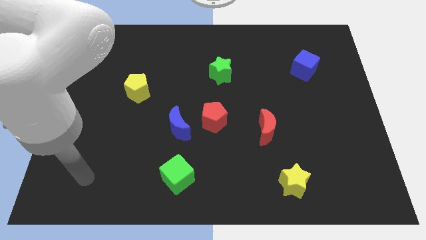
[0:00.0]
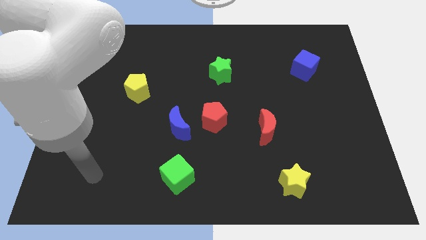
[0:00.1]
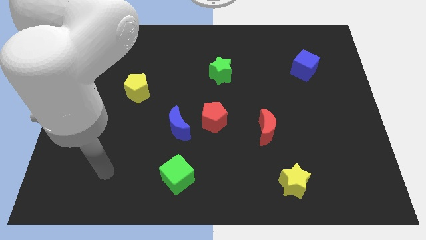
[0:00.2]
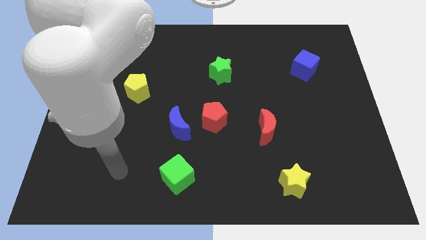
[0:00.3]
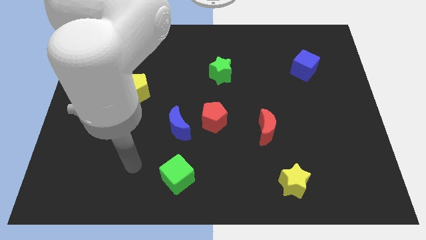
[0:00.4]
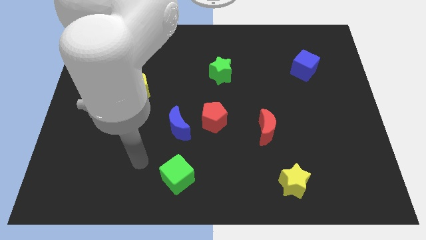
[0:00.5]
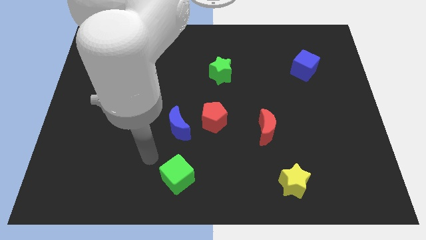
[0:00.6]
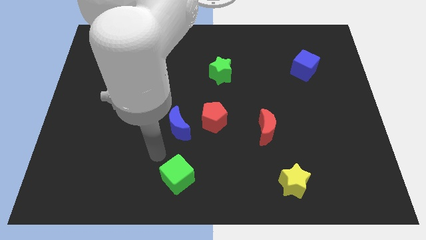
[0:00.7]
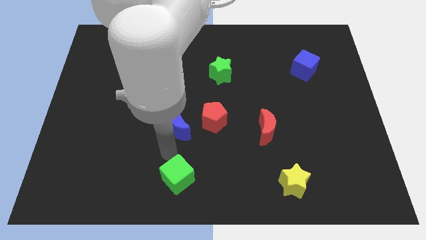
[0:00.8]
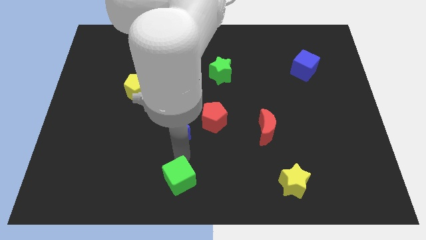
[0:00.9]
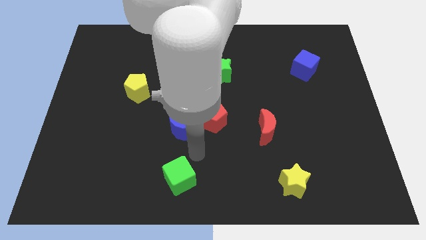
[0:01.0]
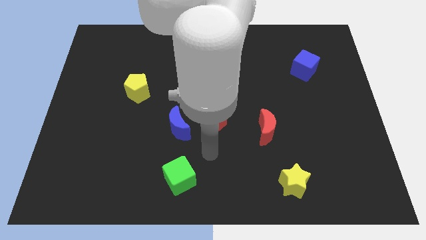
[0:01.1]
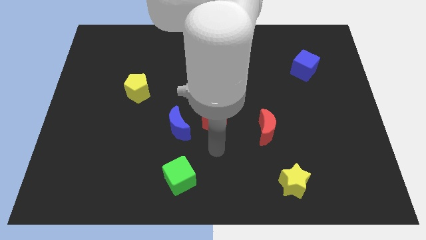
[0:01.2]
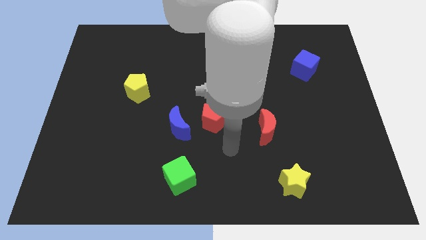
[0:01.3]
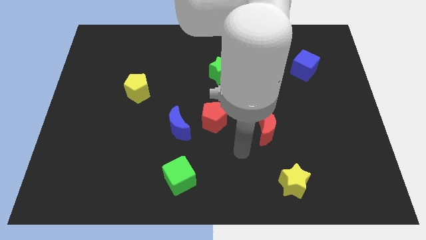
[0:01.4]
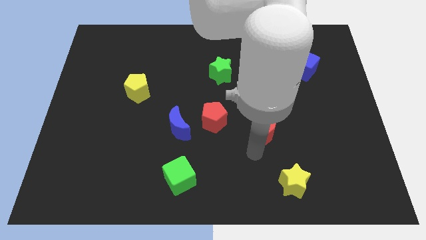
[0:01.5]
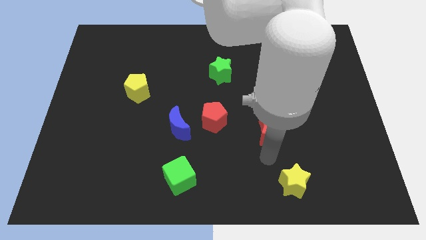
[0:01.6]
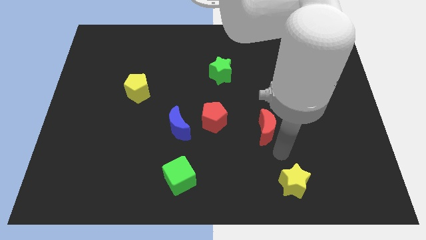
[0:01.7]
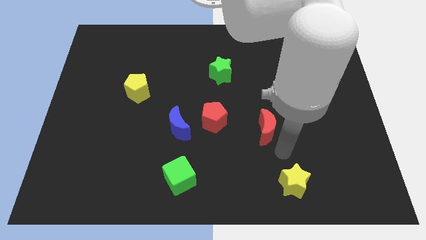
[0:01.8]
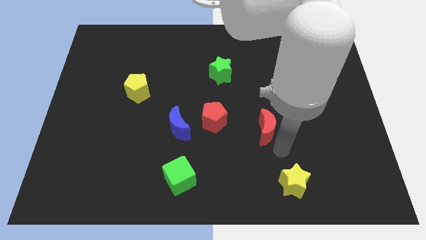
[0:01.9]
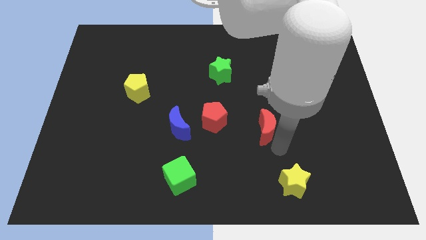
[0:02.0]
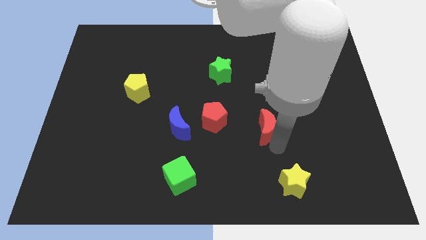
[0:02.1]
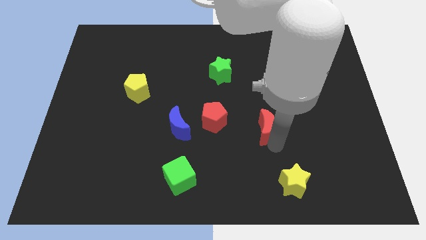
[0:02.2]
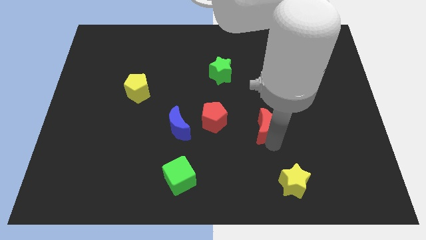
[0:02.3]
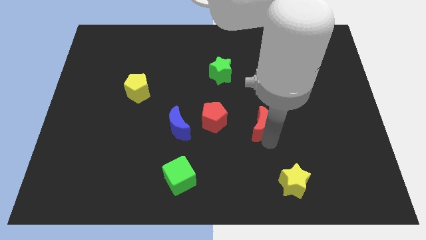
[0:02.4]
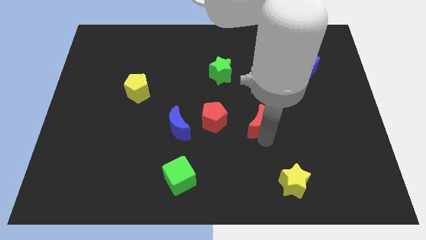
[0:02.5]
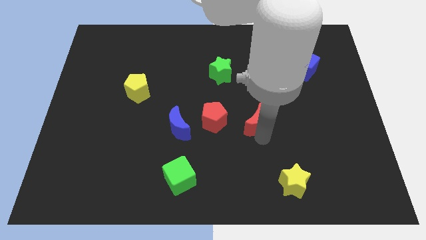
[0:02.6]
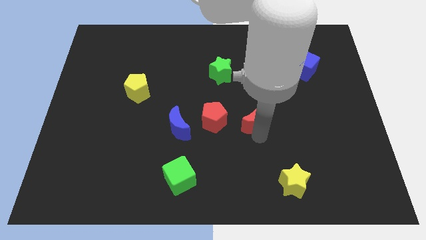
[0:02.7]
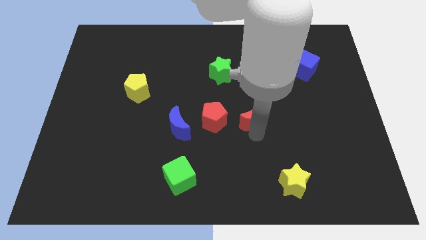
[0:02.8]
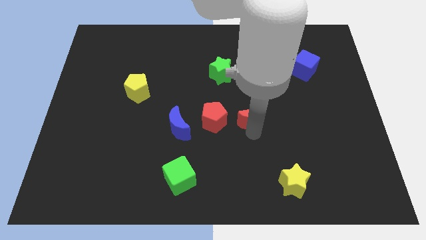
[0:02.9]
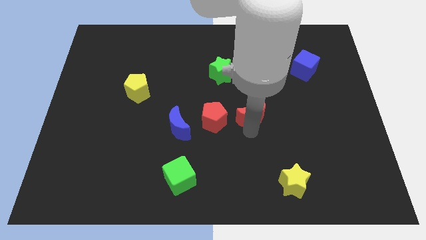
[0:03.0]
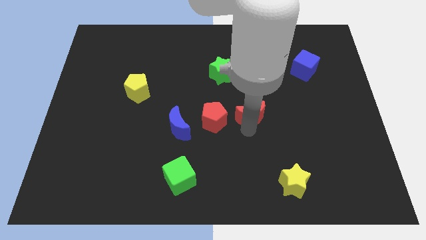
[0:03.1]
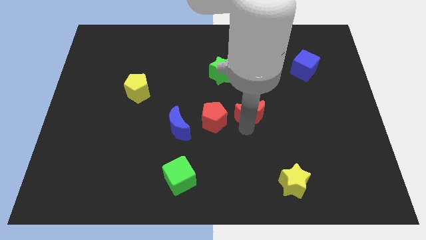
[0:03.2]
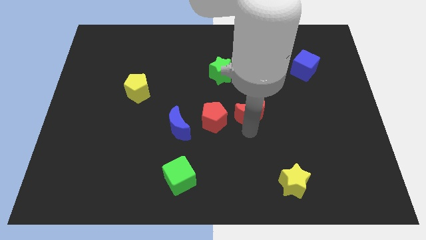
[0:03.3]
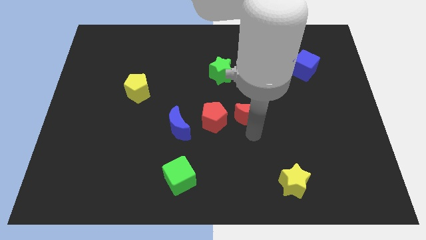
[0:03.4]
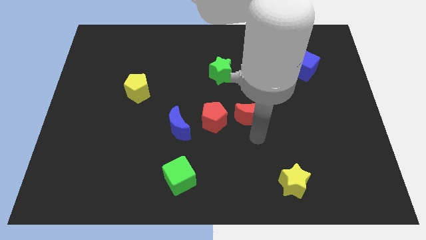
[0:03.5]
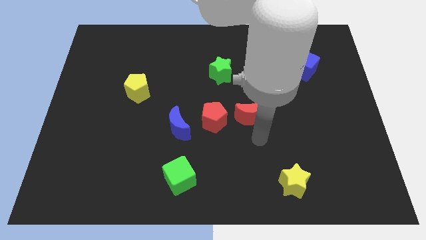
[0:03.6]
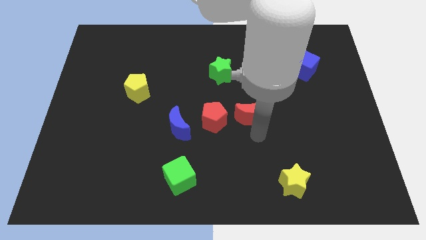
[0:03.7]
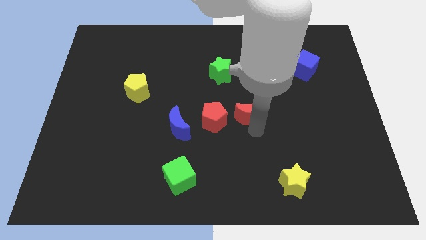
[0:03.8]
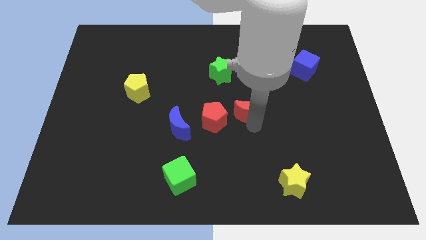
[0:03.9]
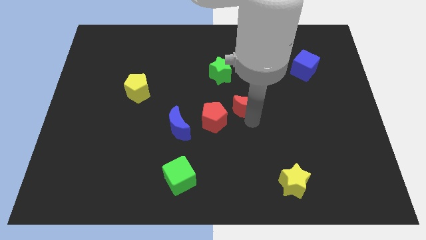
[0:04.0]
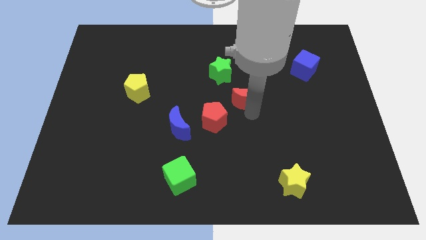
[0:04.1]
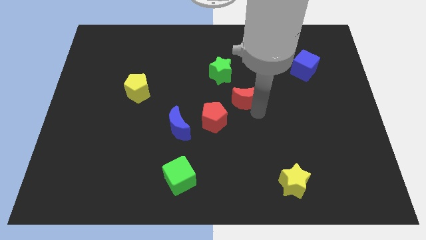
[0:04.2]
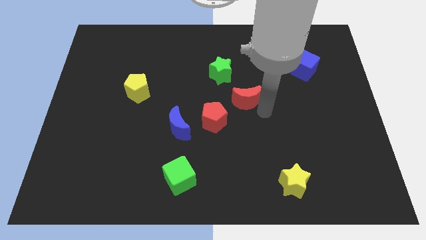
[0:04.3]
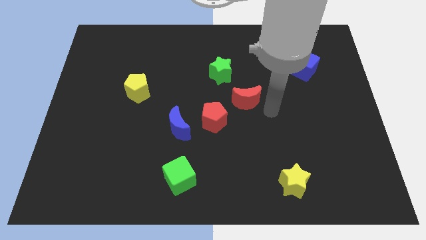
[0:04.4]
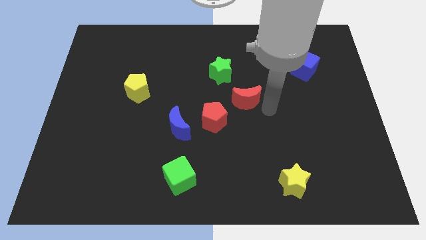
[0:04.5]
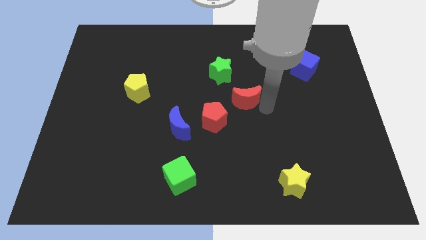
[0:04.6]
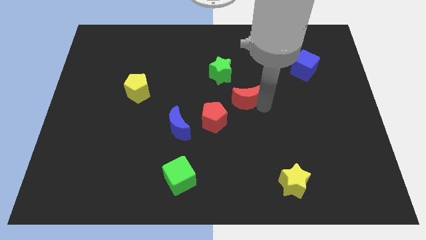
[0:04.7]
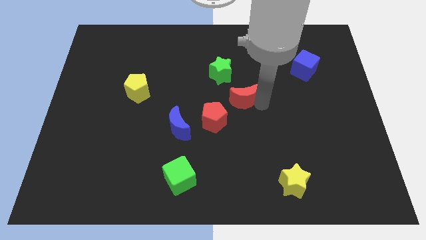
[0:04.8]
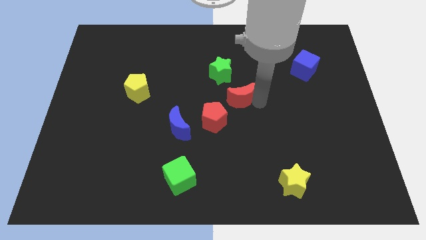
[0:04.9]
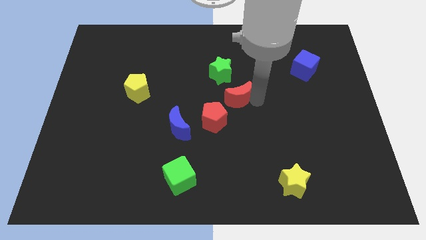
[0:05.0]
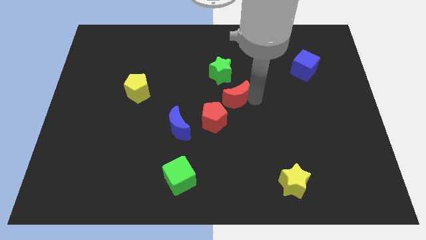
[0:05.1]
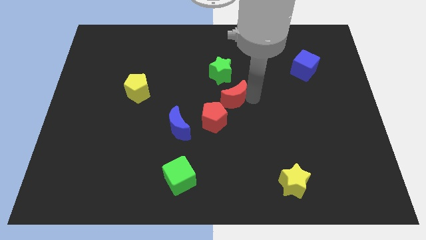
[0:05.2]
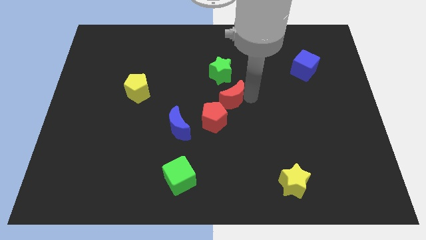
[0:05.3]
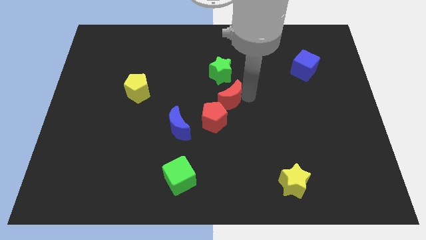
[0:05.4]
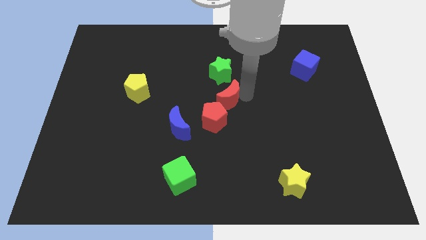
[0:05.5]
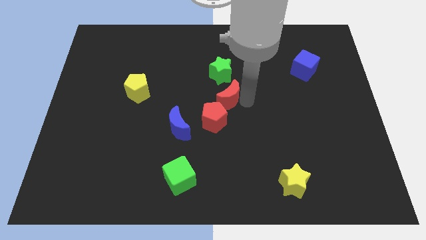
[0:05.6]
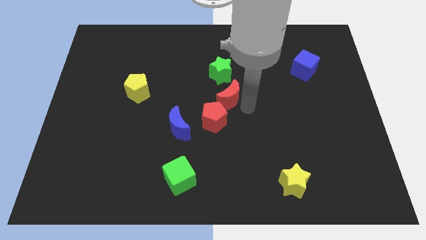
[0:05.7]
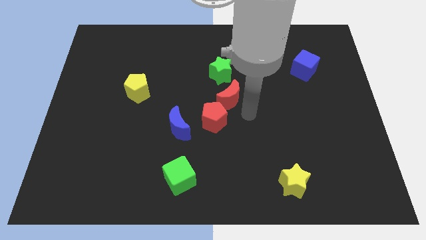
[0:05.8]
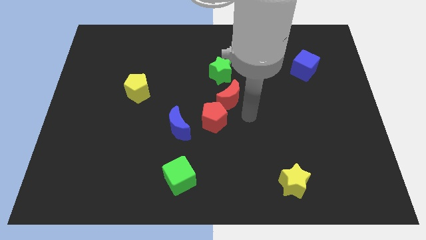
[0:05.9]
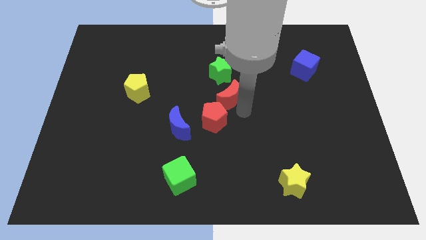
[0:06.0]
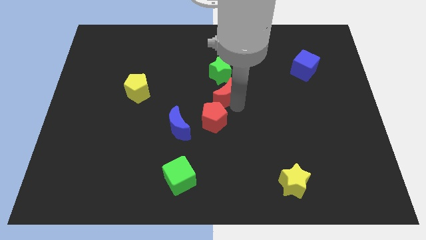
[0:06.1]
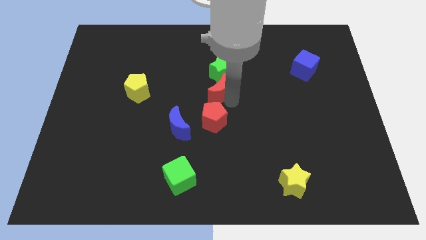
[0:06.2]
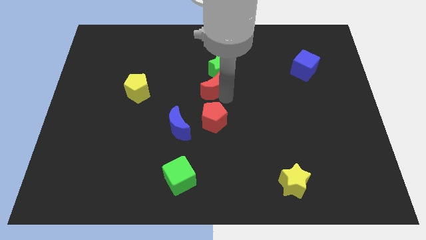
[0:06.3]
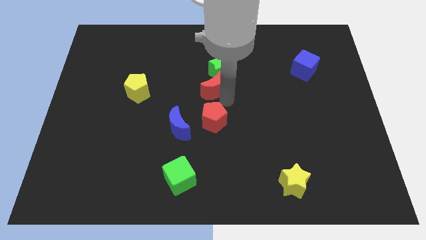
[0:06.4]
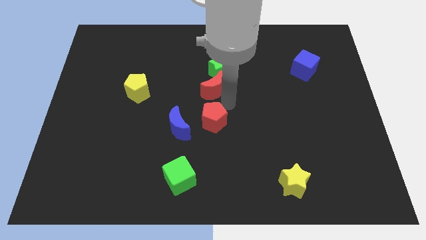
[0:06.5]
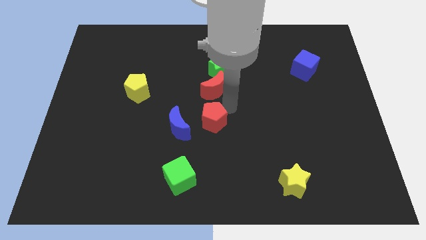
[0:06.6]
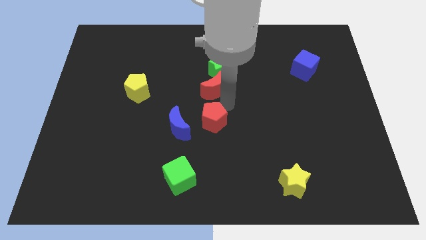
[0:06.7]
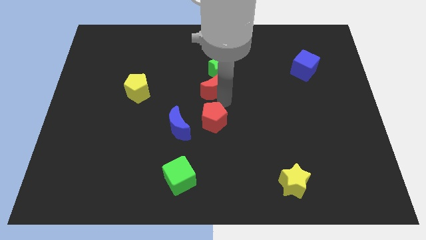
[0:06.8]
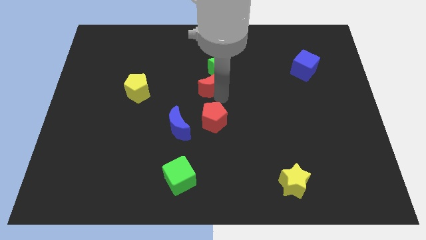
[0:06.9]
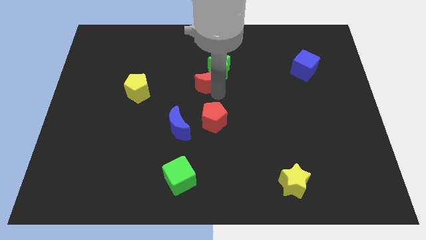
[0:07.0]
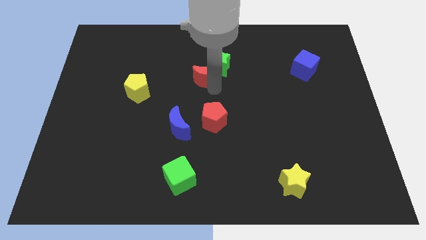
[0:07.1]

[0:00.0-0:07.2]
push the red moon up and to the left diagonally

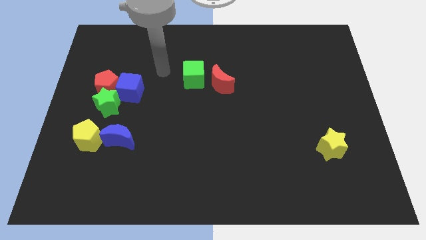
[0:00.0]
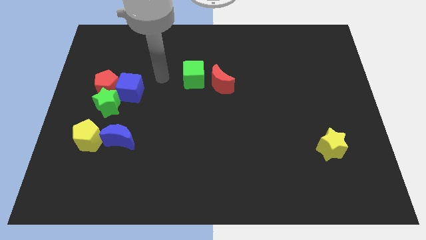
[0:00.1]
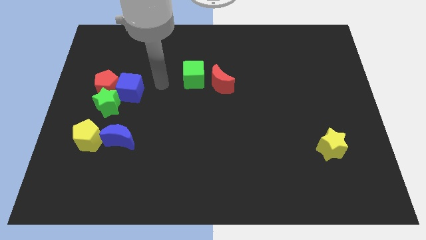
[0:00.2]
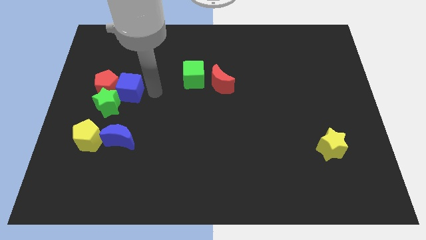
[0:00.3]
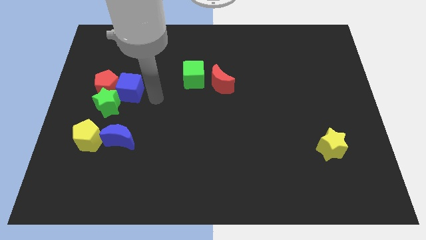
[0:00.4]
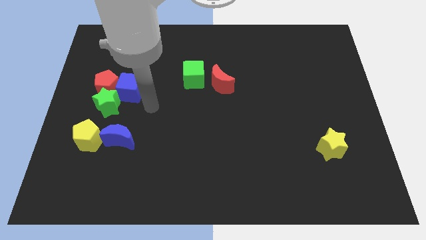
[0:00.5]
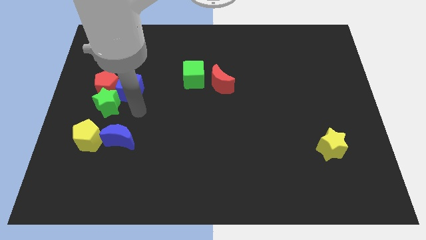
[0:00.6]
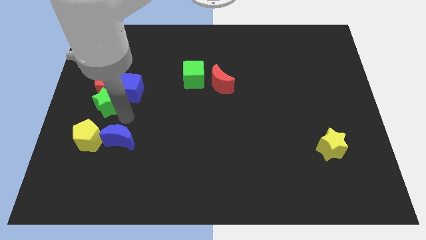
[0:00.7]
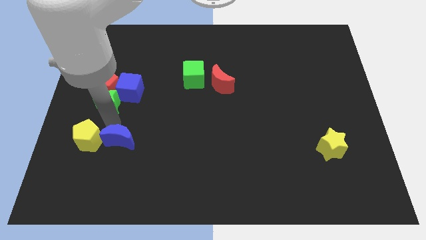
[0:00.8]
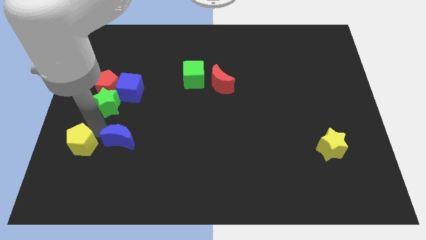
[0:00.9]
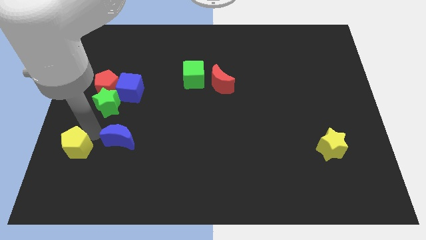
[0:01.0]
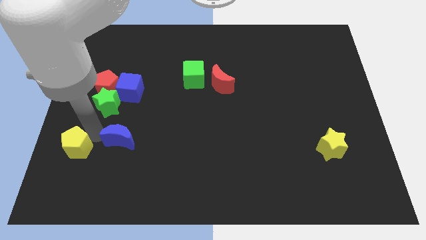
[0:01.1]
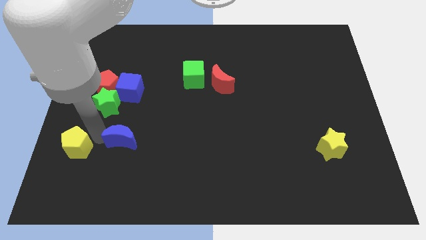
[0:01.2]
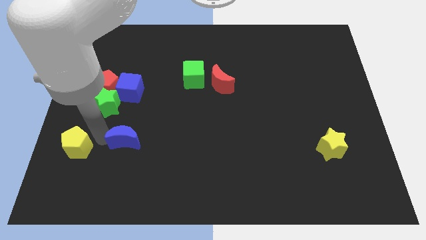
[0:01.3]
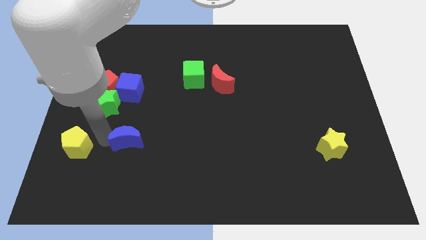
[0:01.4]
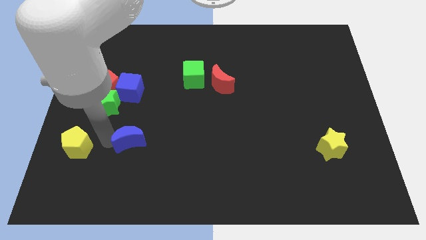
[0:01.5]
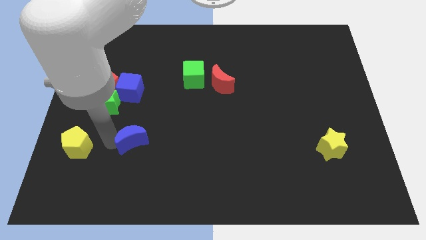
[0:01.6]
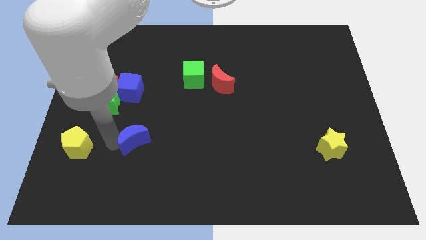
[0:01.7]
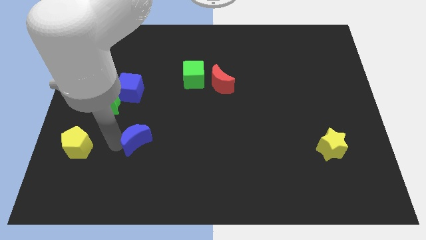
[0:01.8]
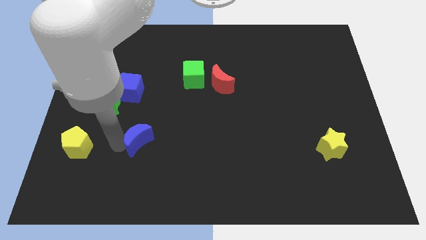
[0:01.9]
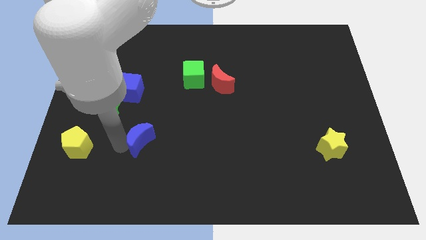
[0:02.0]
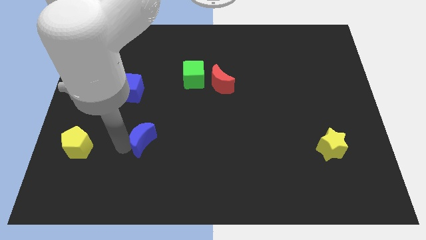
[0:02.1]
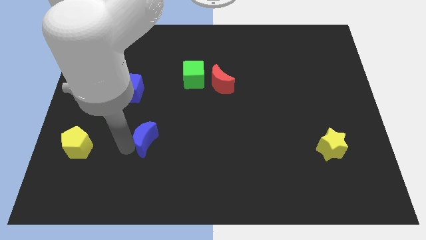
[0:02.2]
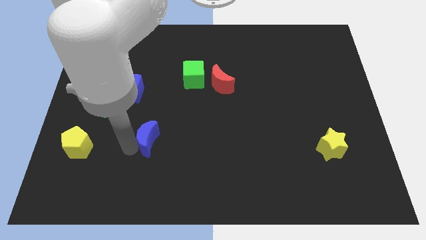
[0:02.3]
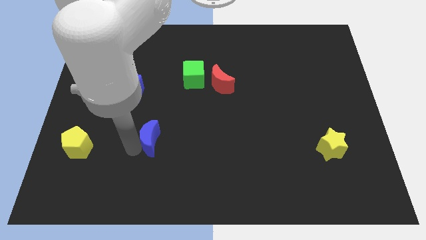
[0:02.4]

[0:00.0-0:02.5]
push the blue moon slightly to the right
